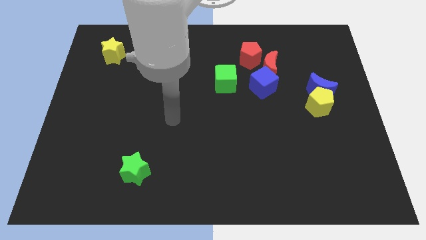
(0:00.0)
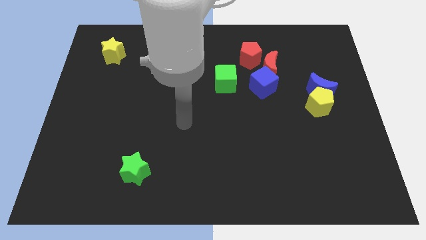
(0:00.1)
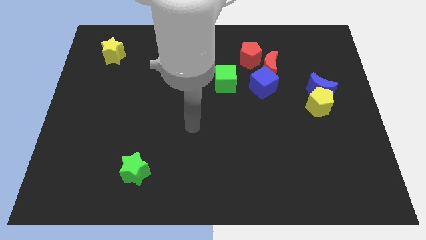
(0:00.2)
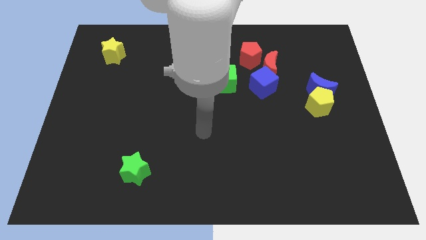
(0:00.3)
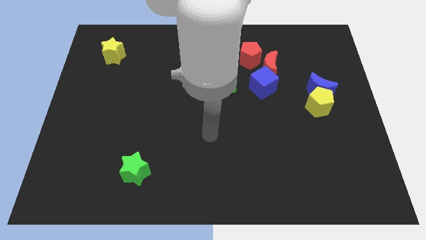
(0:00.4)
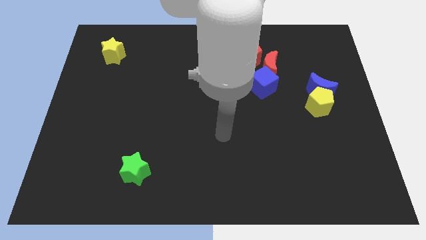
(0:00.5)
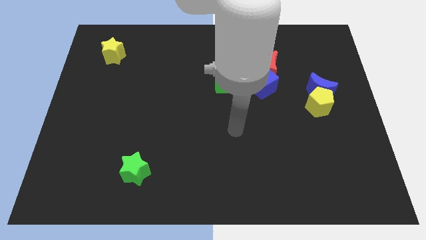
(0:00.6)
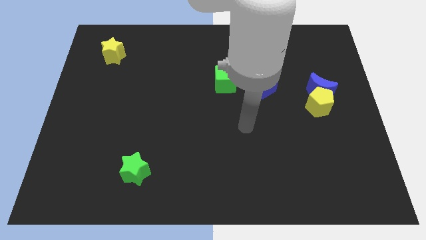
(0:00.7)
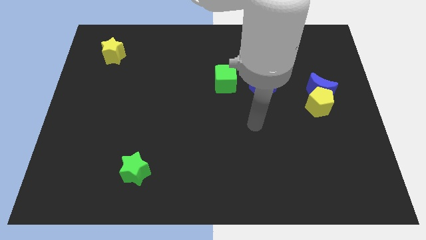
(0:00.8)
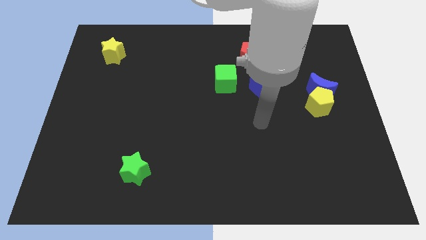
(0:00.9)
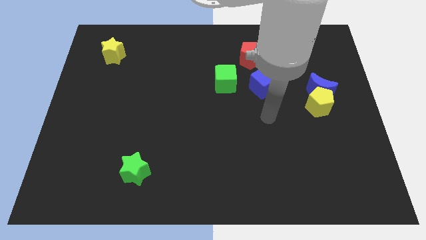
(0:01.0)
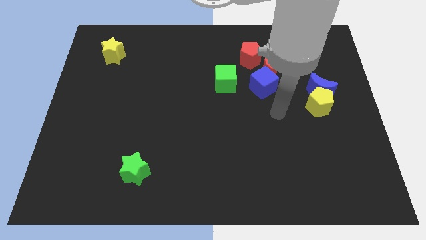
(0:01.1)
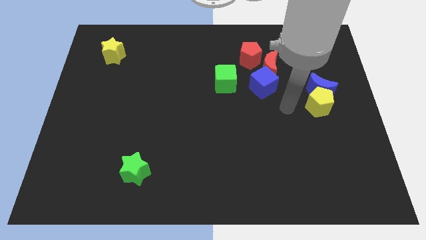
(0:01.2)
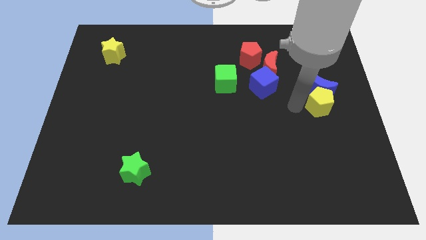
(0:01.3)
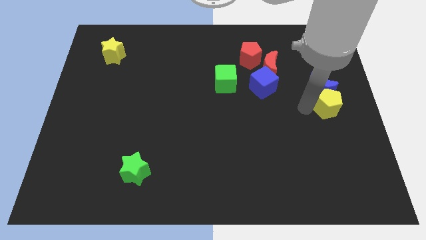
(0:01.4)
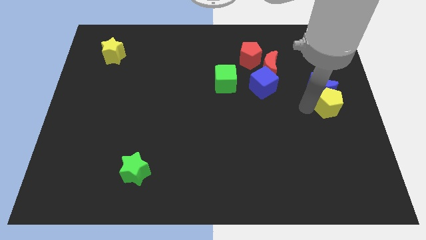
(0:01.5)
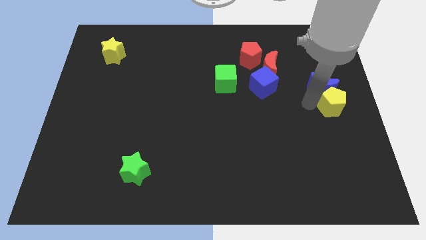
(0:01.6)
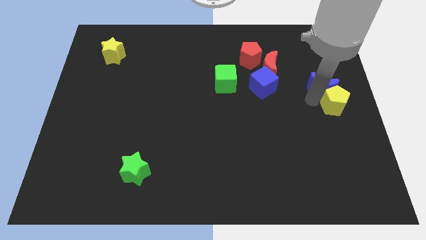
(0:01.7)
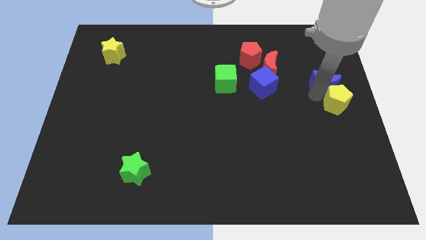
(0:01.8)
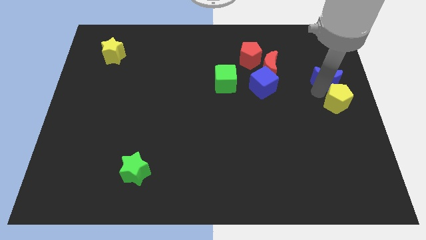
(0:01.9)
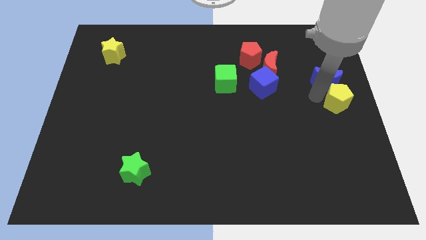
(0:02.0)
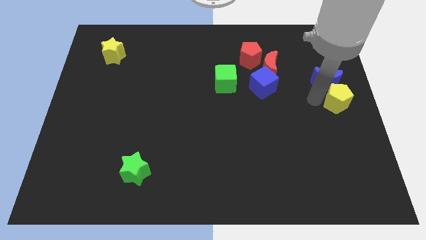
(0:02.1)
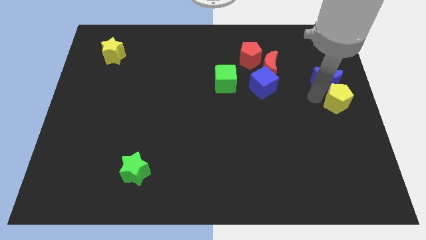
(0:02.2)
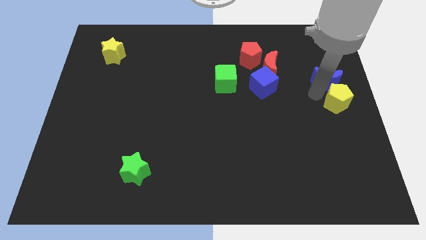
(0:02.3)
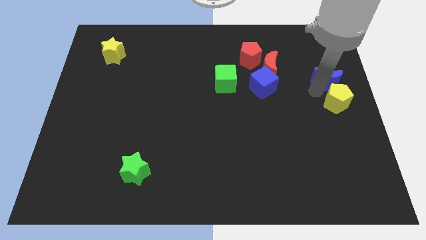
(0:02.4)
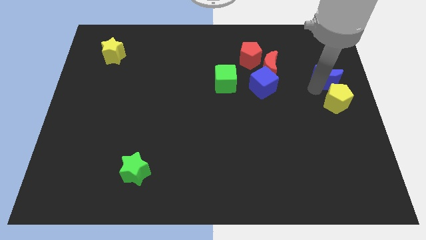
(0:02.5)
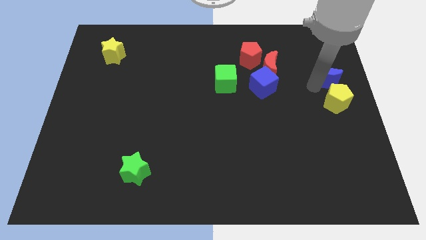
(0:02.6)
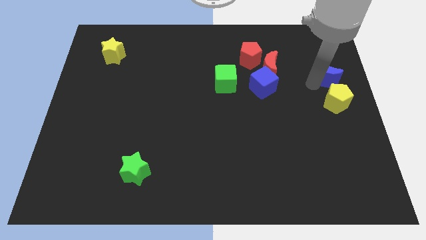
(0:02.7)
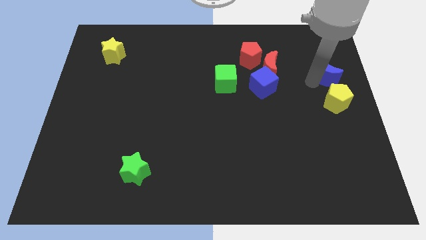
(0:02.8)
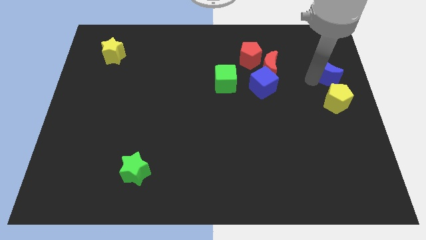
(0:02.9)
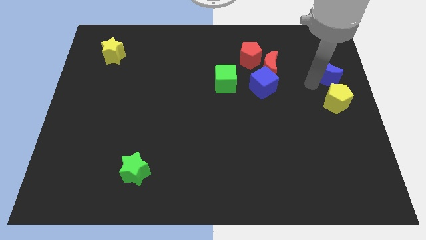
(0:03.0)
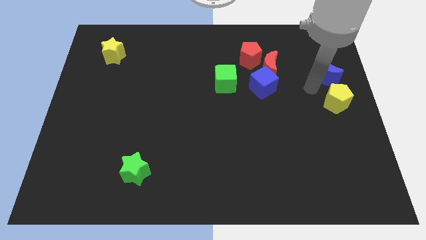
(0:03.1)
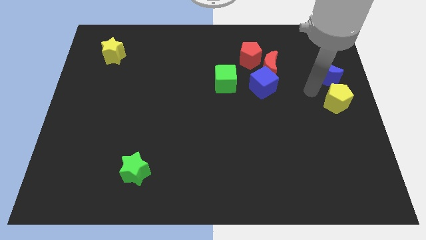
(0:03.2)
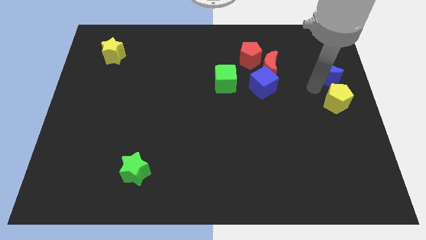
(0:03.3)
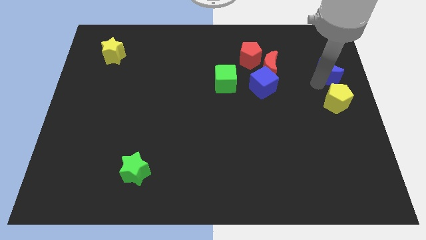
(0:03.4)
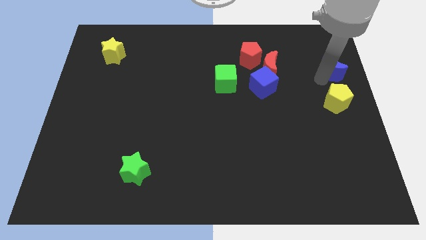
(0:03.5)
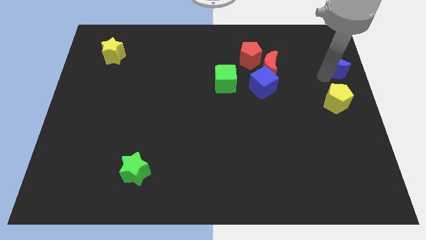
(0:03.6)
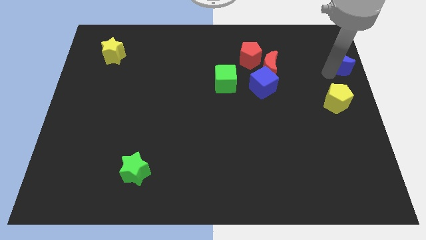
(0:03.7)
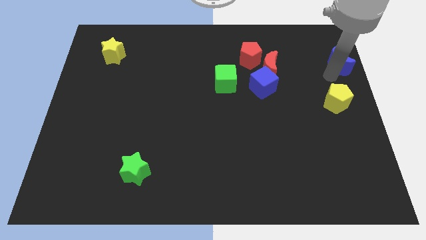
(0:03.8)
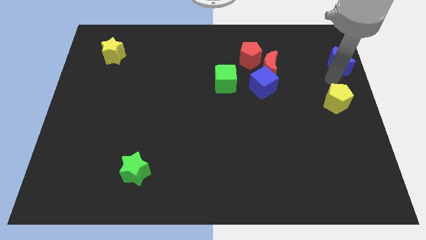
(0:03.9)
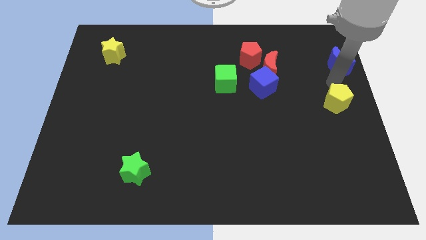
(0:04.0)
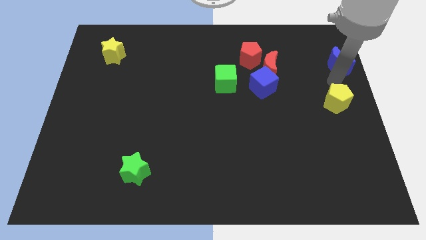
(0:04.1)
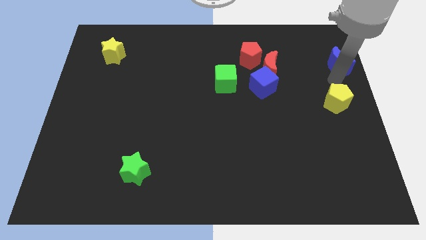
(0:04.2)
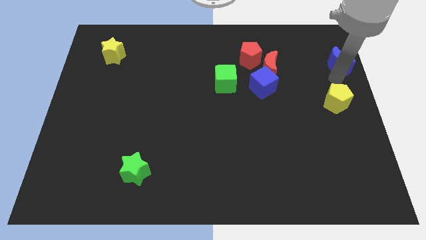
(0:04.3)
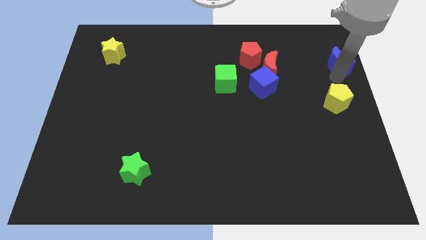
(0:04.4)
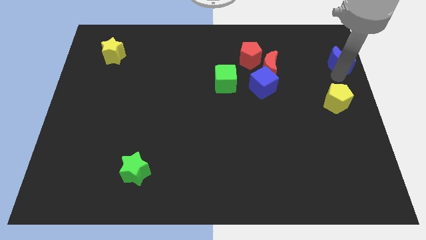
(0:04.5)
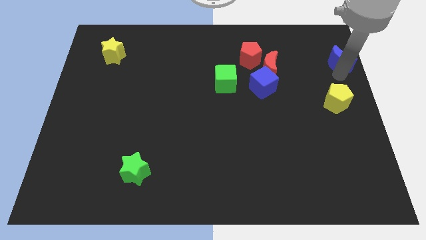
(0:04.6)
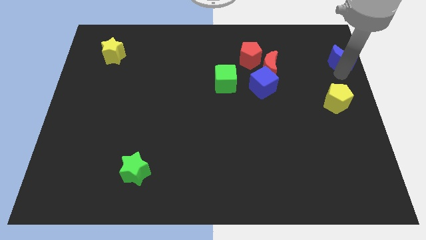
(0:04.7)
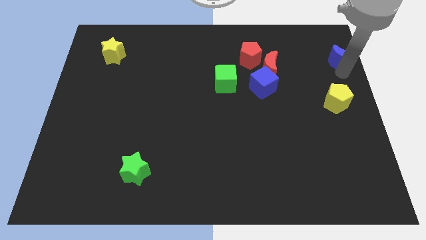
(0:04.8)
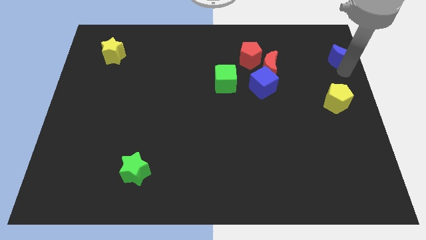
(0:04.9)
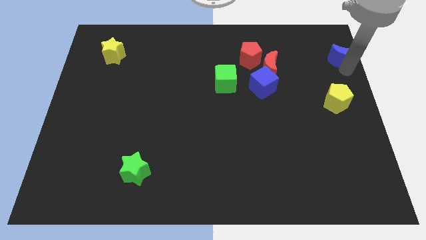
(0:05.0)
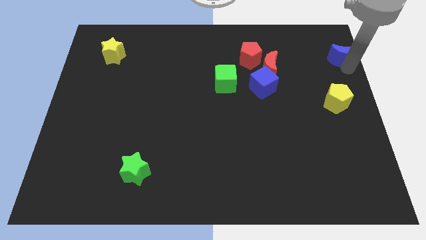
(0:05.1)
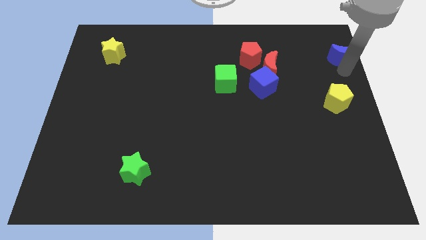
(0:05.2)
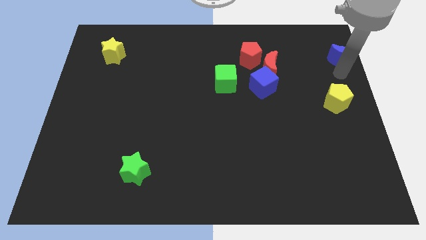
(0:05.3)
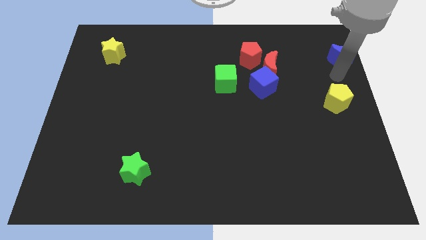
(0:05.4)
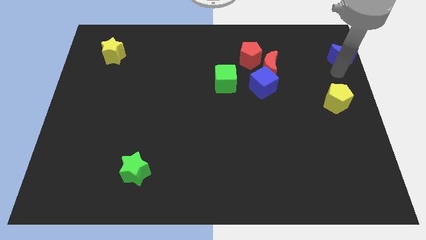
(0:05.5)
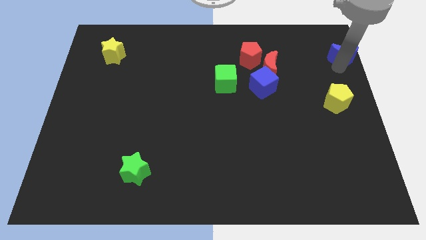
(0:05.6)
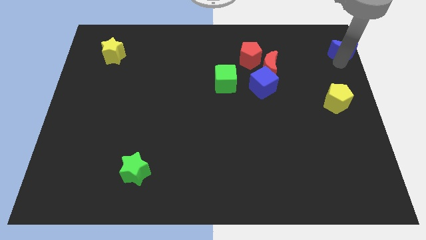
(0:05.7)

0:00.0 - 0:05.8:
move the blue moon to the top right corner

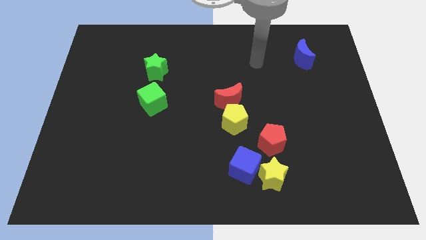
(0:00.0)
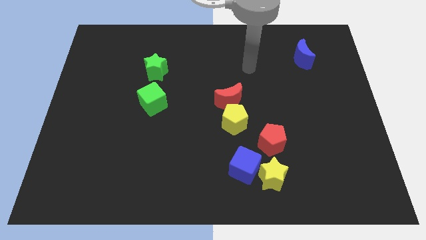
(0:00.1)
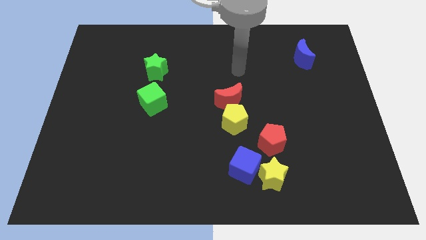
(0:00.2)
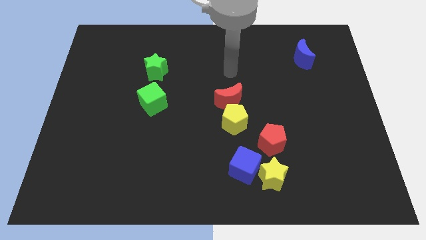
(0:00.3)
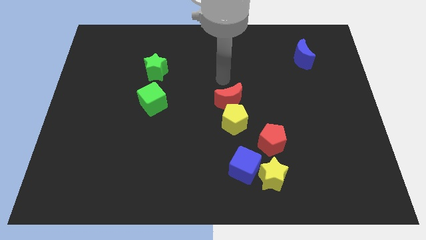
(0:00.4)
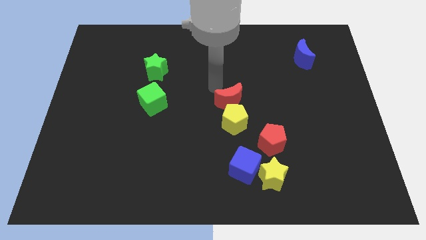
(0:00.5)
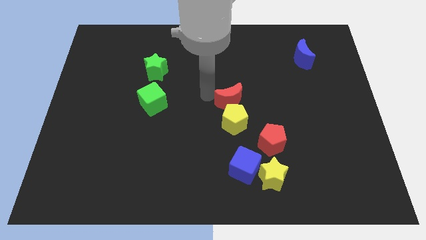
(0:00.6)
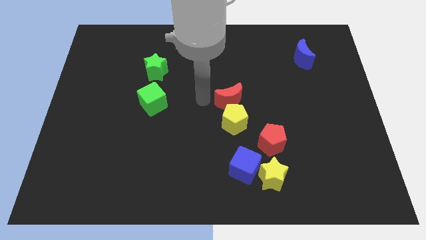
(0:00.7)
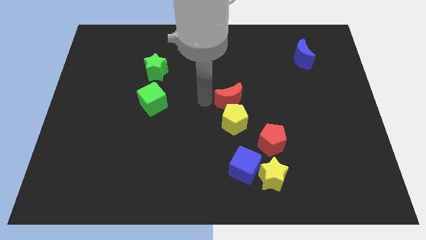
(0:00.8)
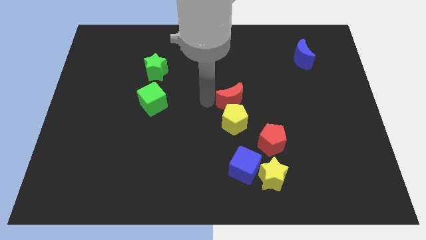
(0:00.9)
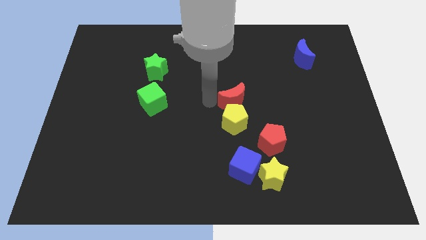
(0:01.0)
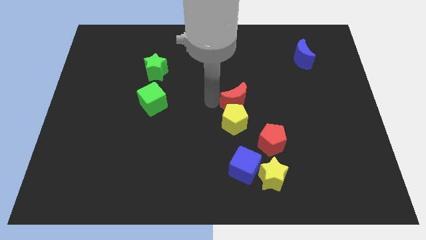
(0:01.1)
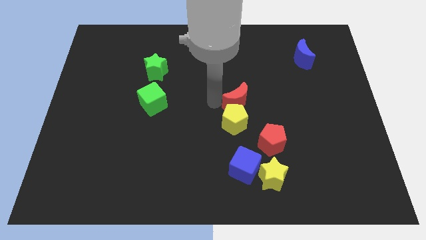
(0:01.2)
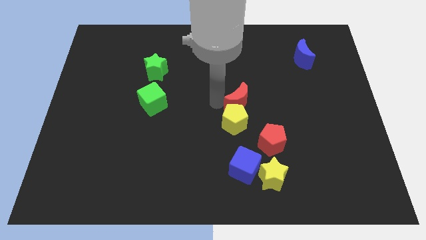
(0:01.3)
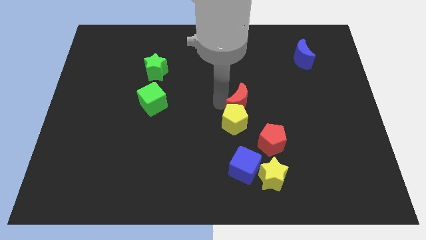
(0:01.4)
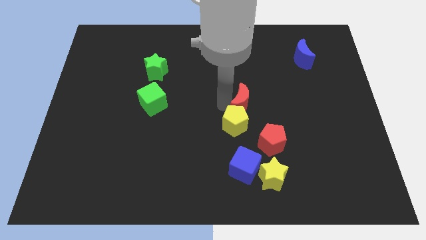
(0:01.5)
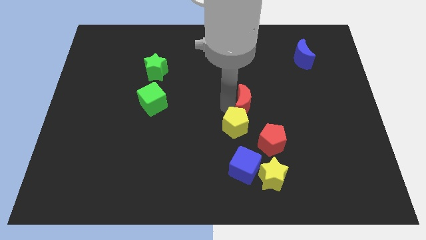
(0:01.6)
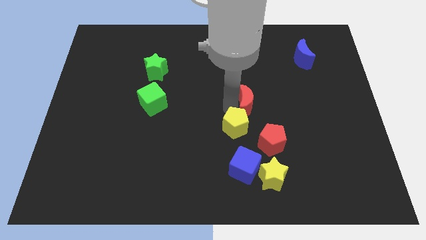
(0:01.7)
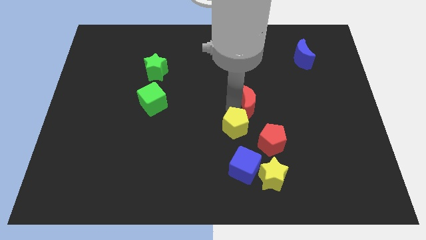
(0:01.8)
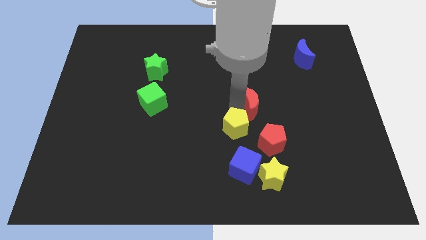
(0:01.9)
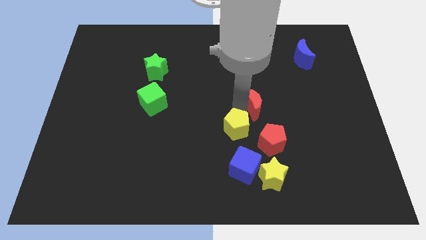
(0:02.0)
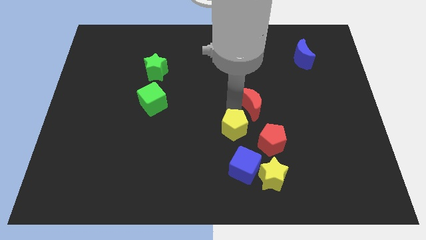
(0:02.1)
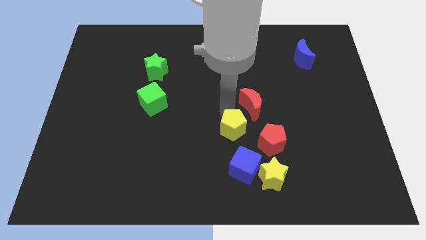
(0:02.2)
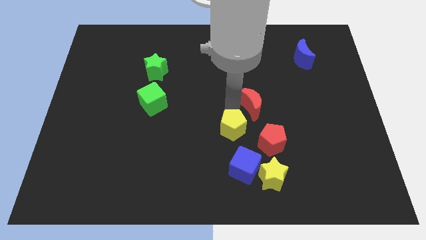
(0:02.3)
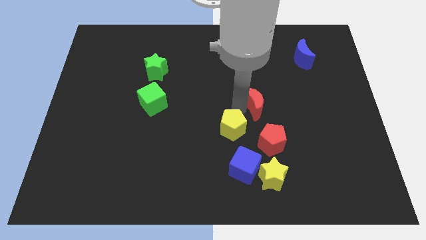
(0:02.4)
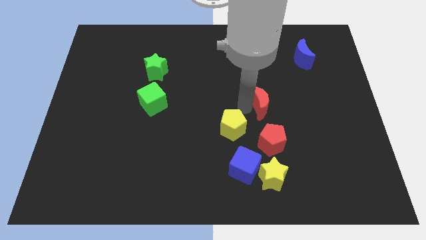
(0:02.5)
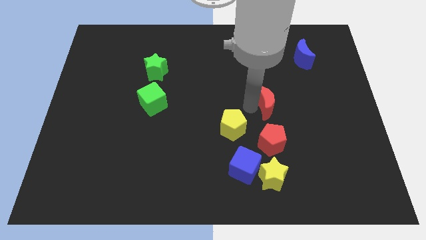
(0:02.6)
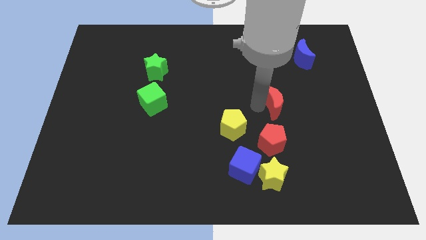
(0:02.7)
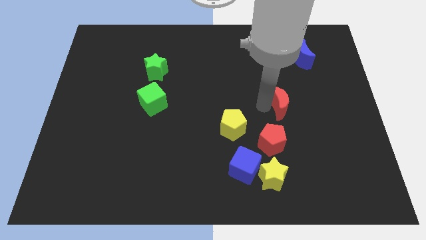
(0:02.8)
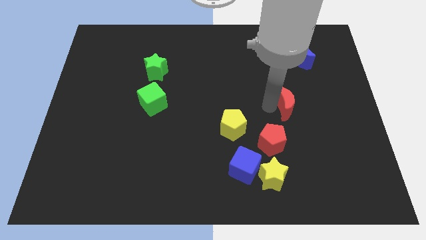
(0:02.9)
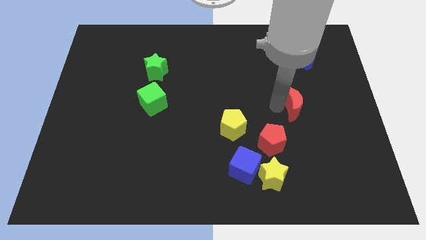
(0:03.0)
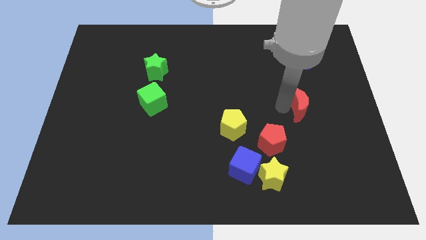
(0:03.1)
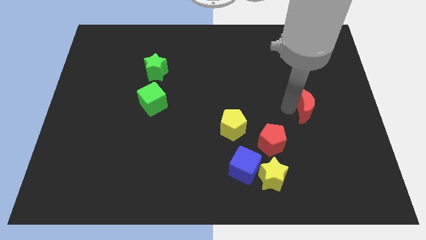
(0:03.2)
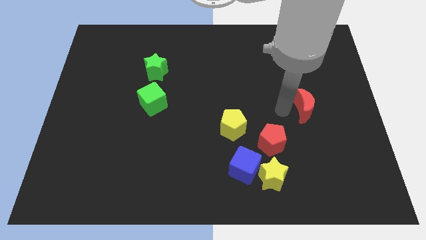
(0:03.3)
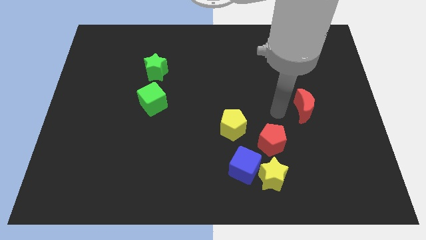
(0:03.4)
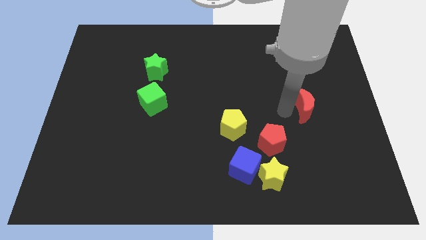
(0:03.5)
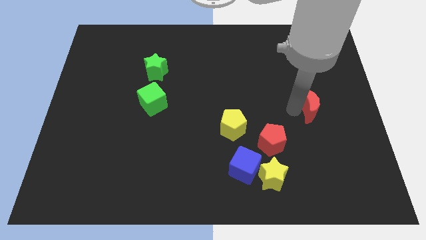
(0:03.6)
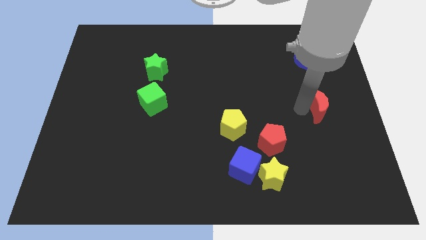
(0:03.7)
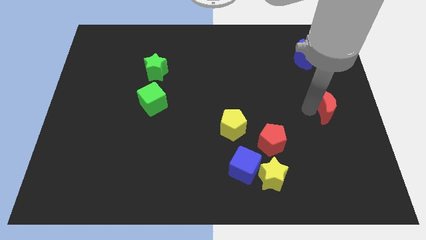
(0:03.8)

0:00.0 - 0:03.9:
put the red moon to the center right
